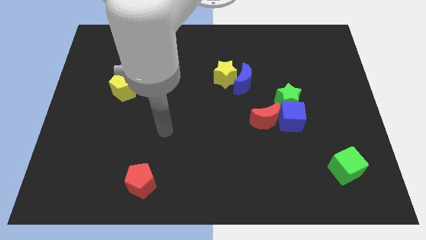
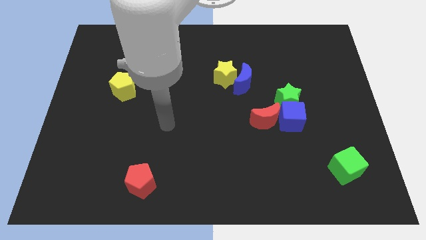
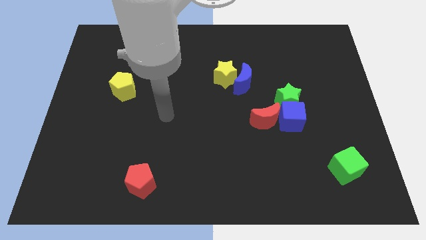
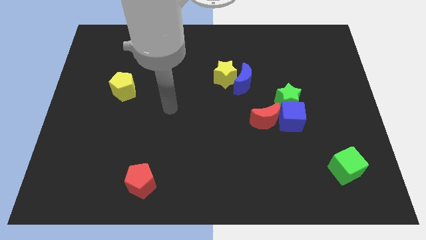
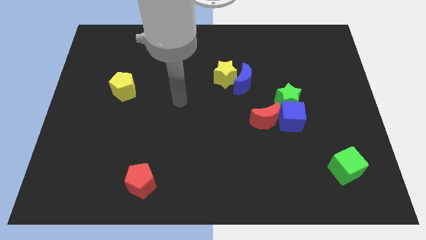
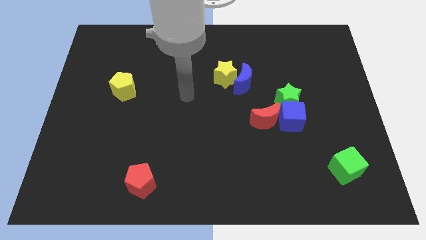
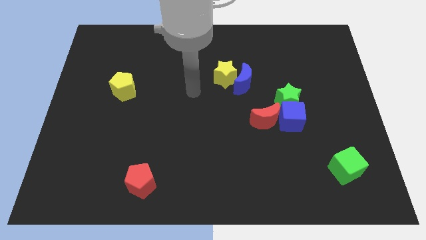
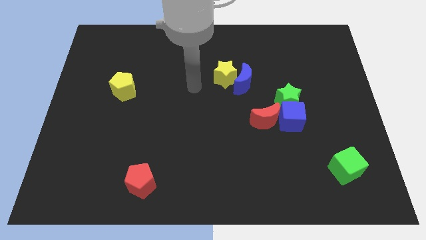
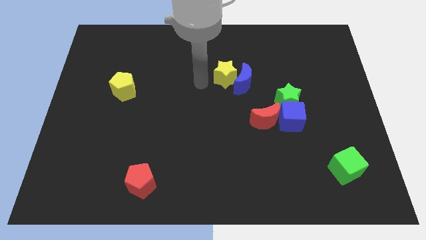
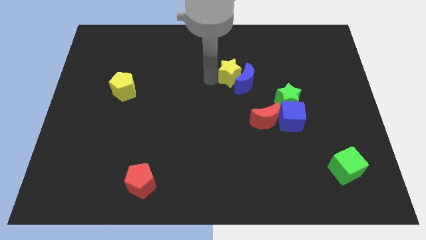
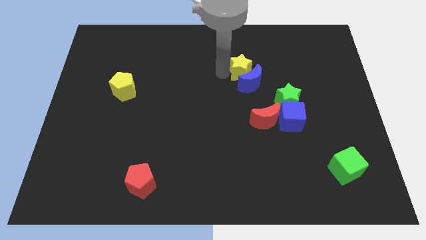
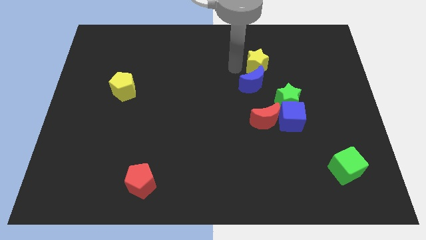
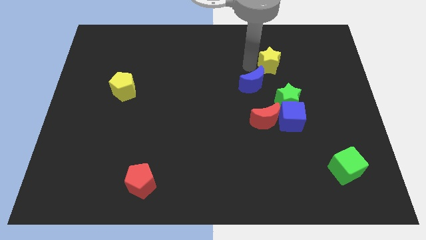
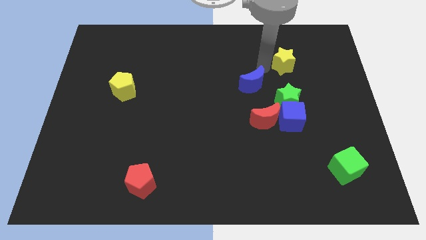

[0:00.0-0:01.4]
separate the blue moon from the yellow star

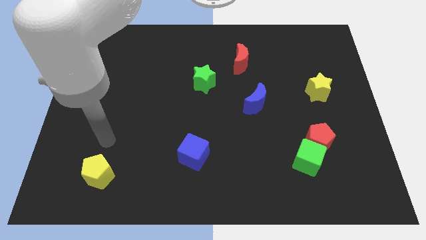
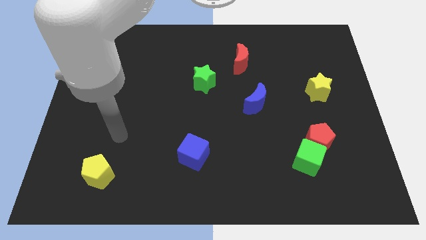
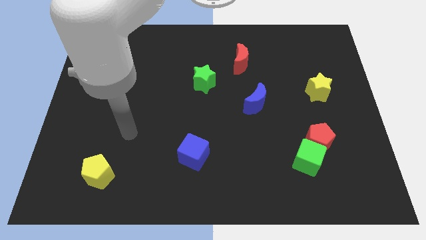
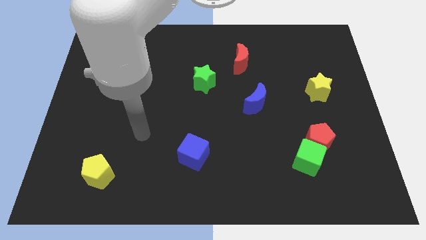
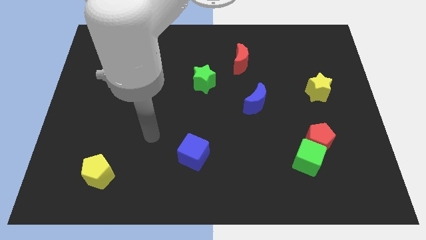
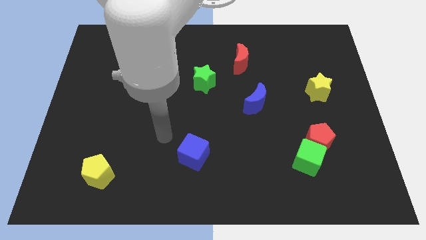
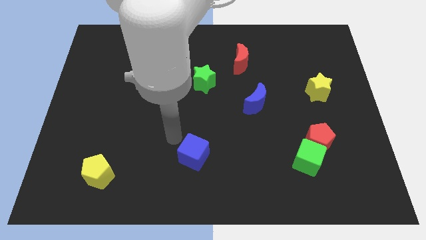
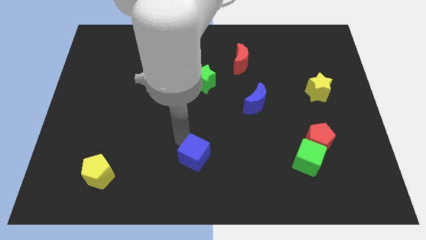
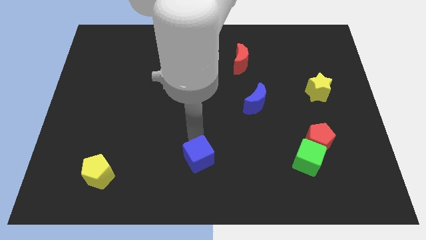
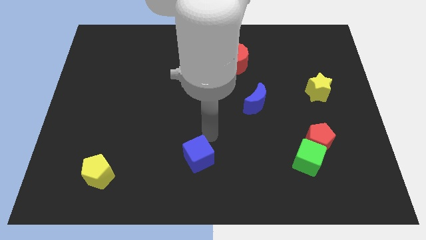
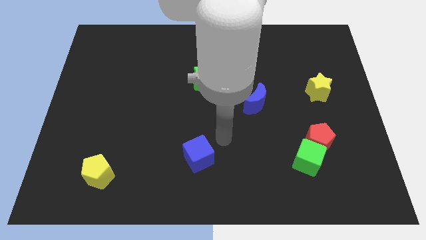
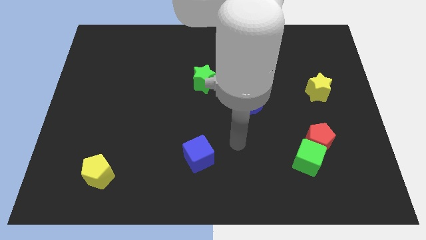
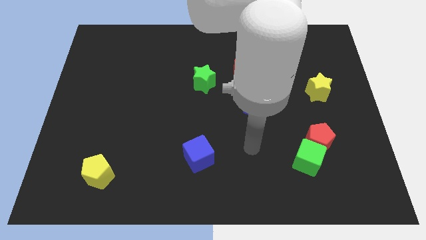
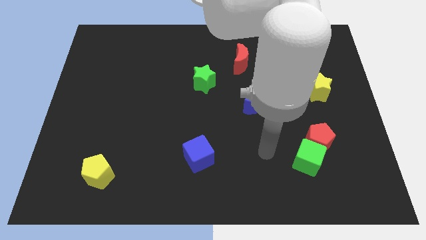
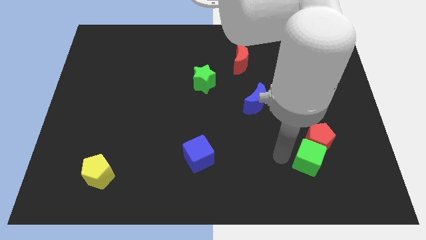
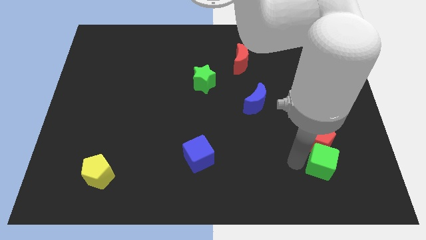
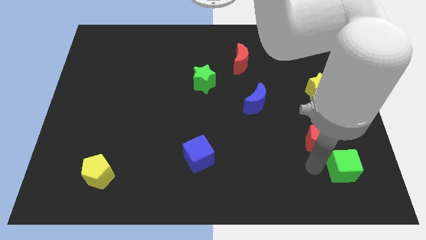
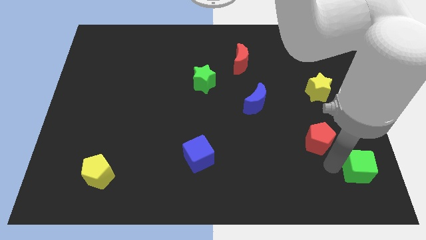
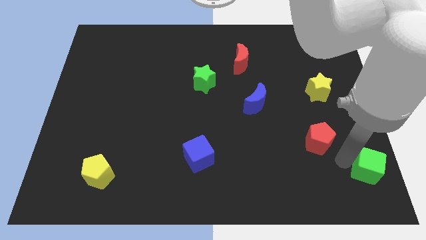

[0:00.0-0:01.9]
pull the red pentagon apart from the green cube

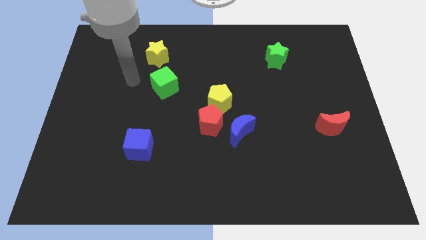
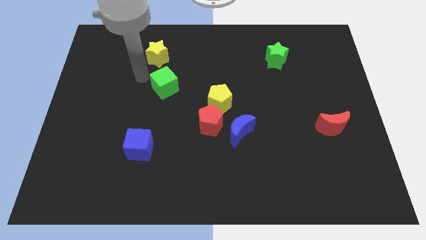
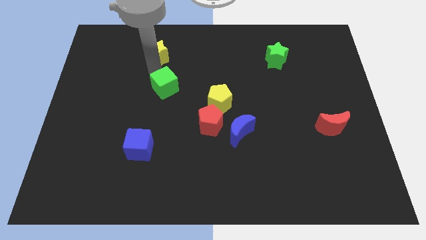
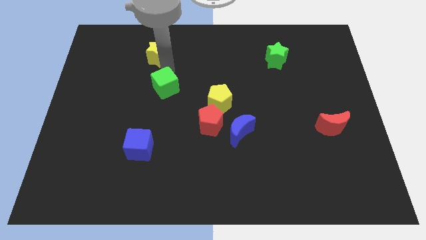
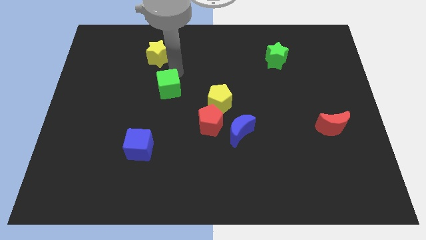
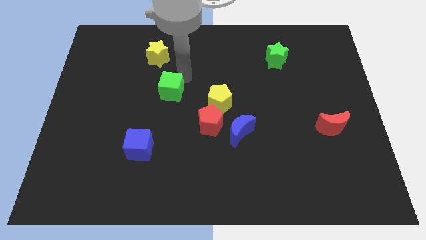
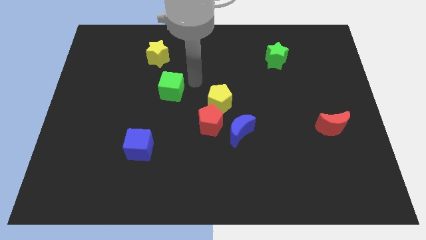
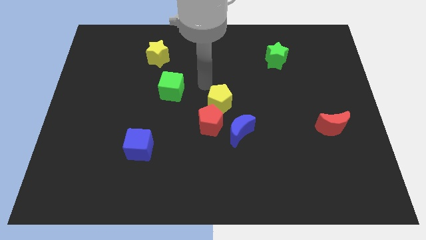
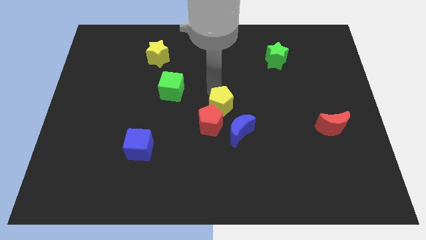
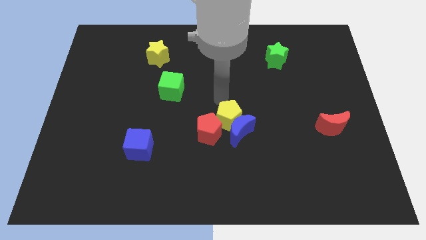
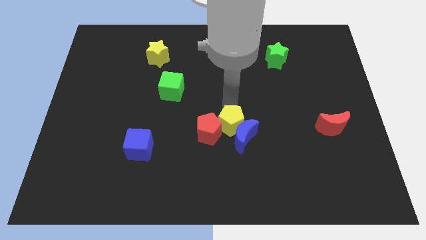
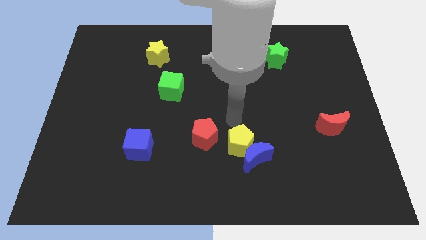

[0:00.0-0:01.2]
pull the red pentagon apart from the yellow pentagon and blue moon

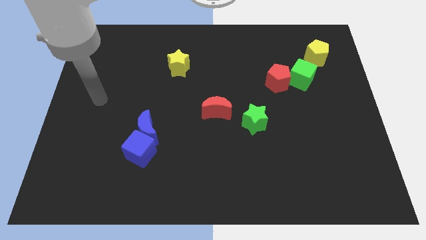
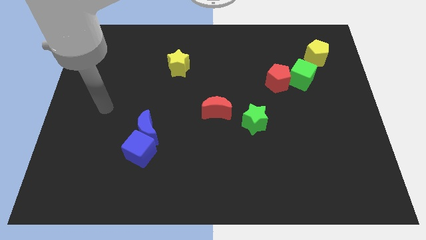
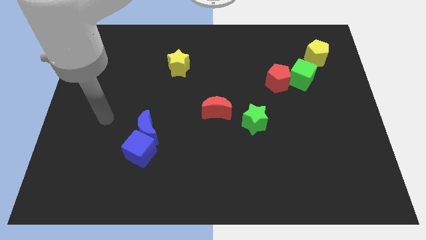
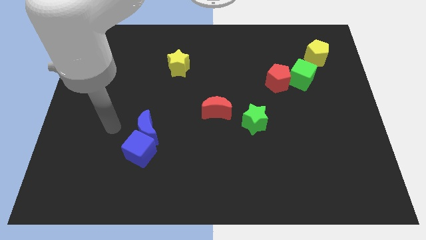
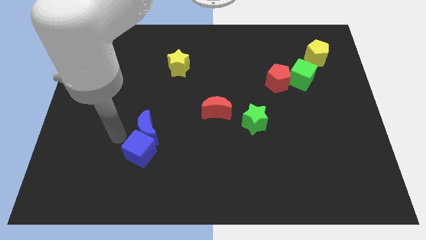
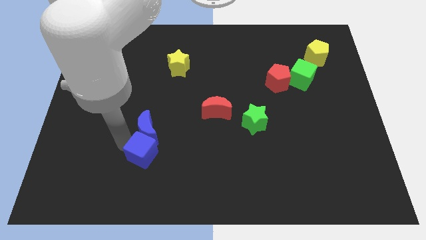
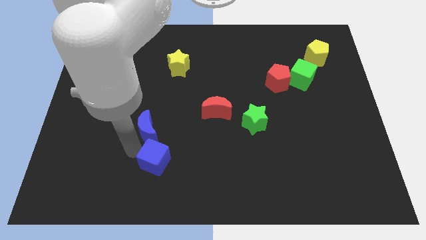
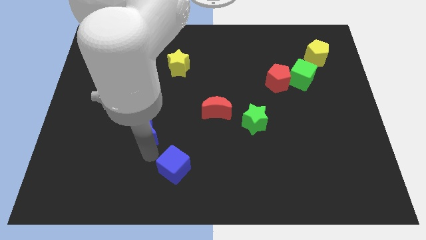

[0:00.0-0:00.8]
pull the blue moon apart from the blue cube

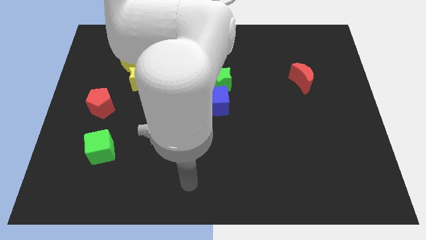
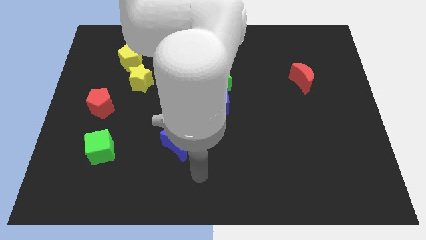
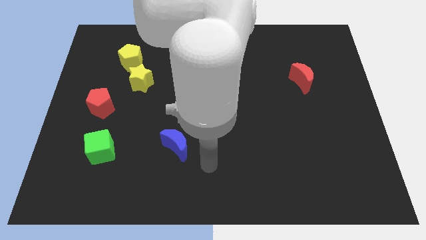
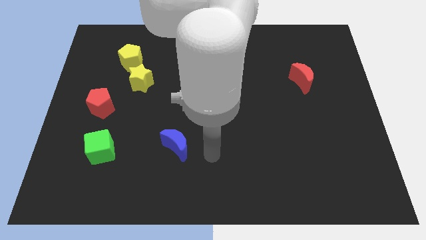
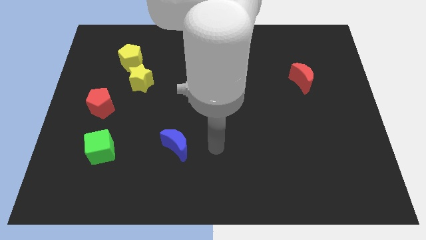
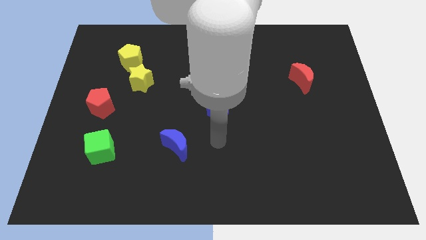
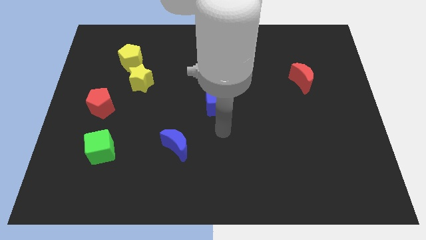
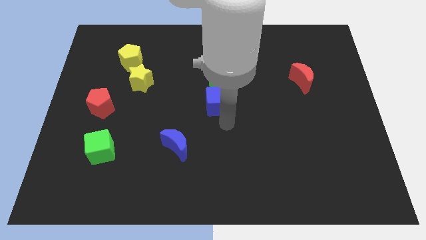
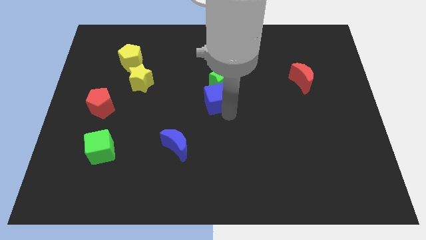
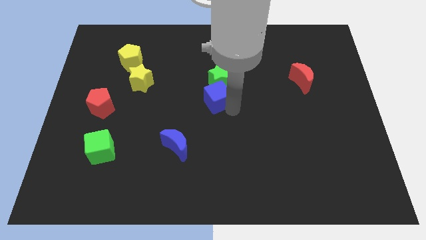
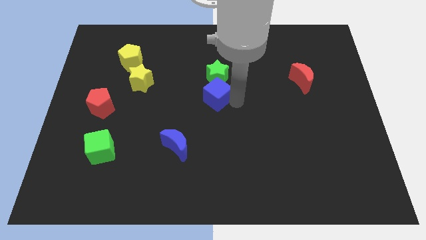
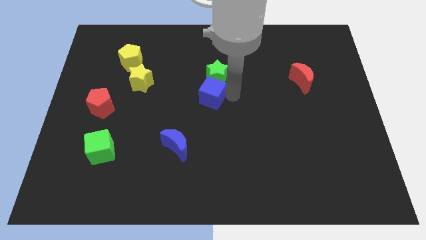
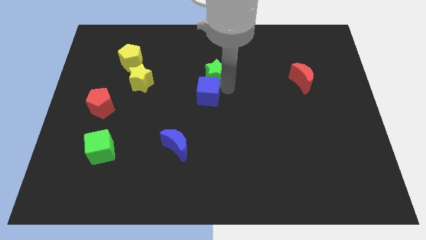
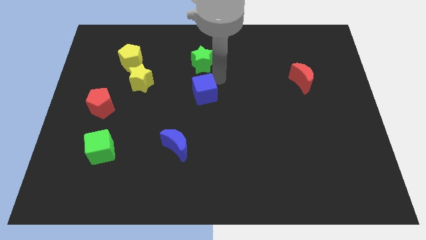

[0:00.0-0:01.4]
separate the blue cube from the green star

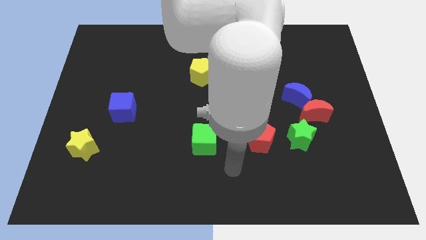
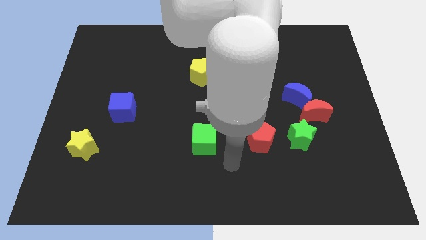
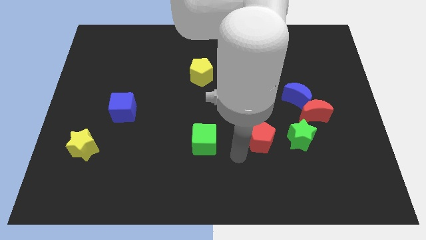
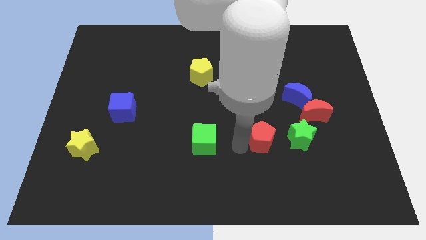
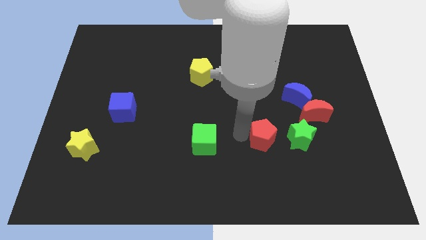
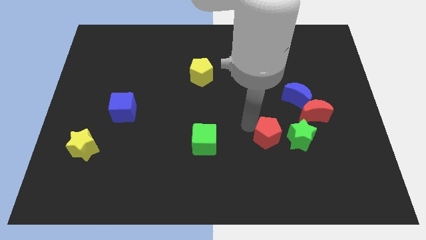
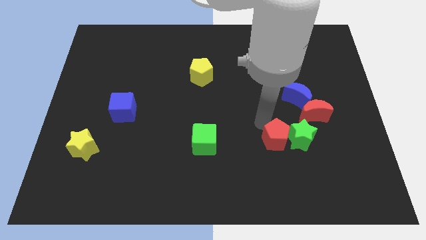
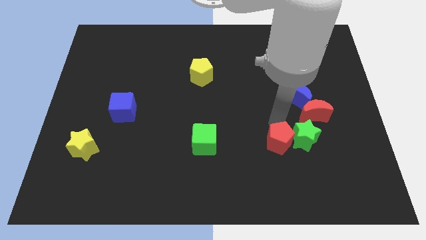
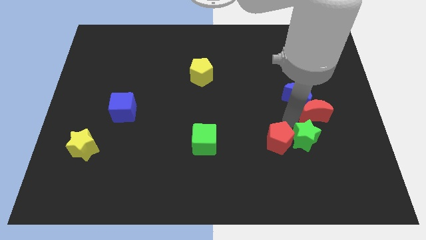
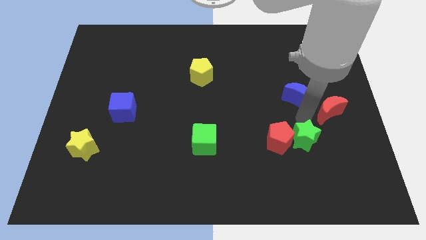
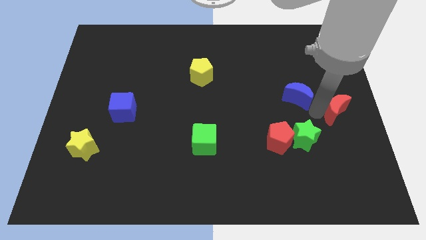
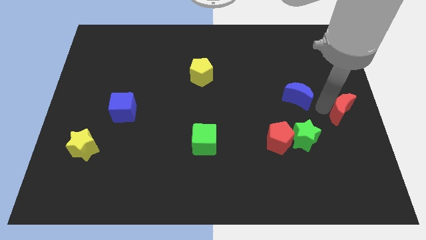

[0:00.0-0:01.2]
move the blue moon away from the red moon

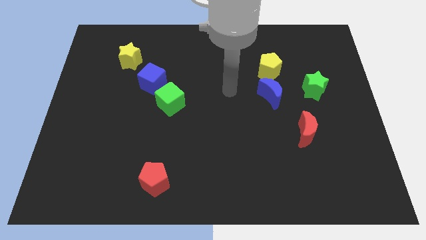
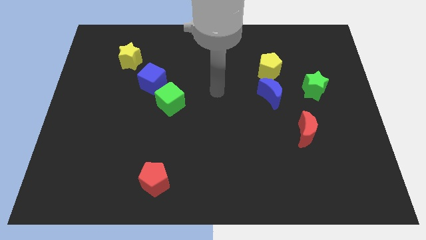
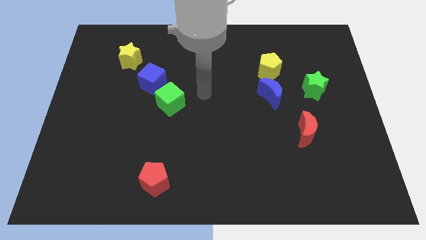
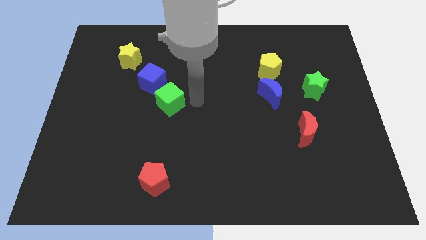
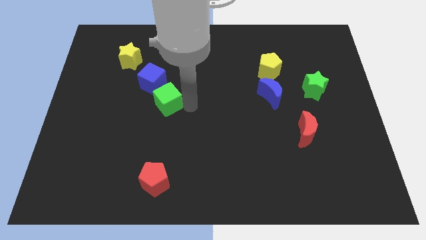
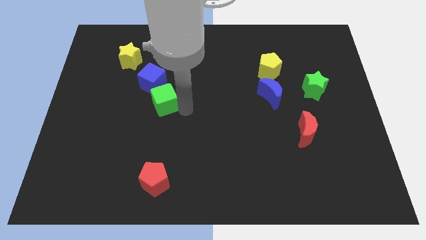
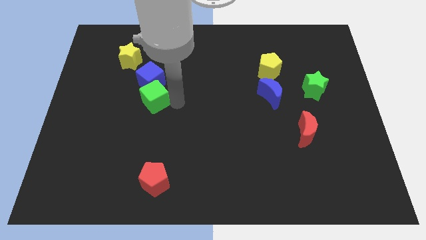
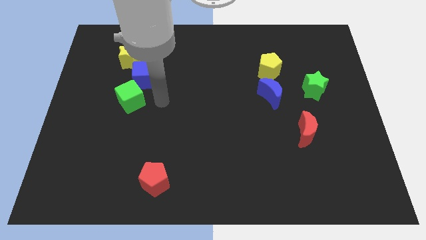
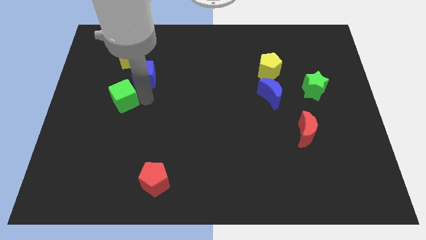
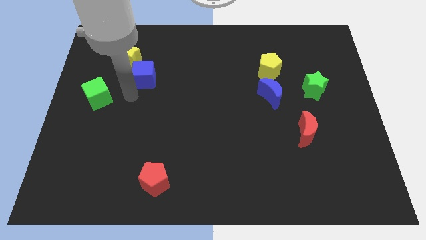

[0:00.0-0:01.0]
move the blue cube away from the green cube

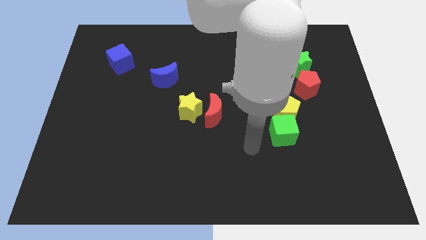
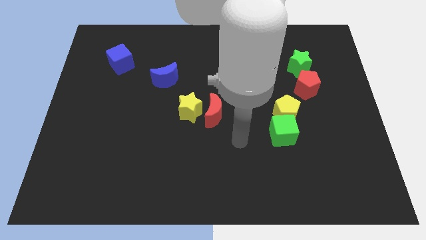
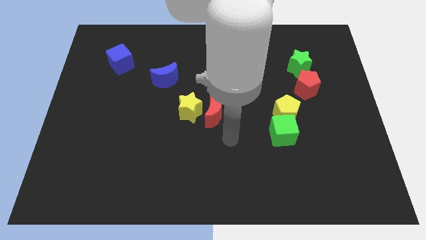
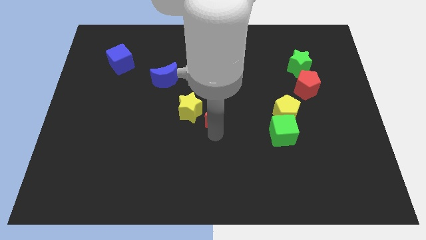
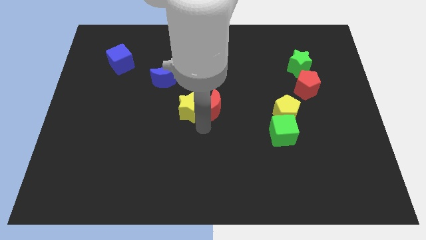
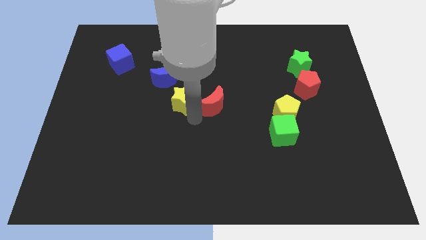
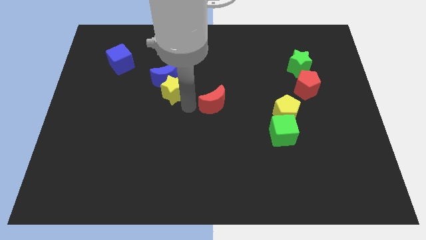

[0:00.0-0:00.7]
separate the red moon from the yellow star
